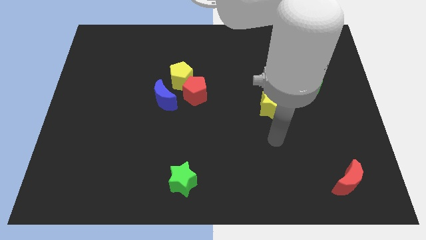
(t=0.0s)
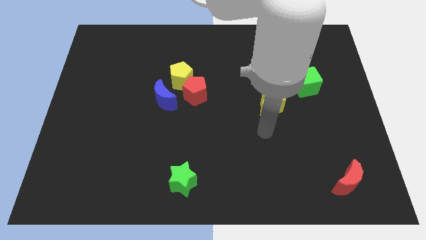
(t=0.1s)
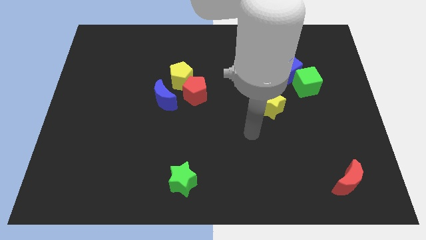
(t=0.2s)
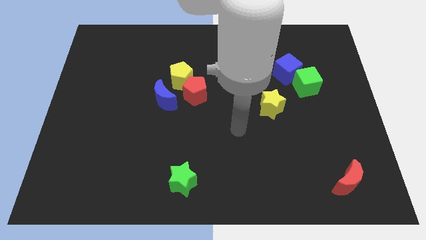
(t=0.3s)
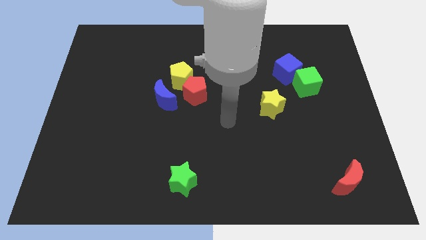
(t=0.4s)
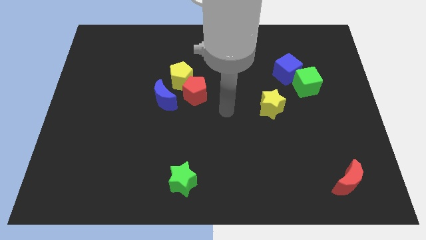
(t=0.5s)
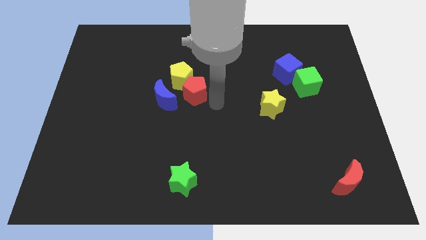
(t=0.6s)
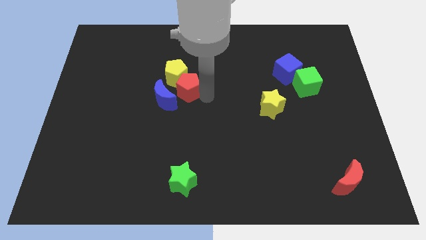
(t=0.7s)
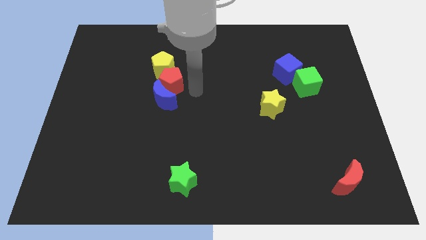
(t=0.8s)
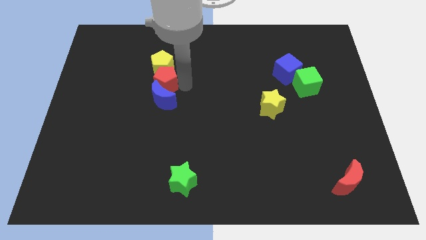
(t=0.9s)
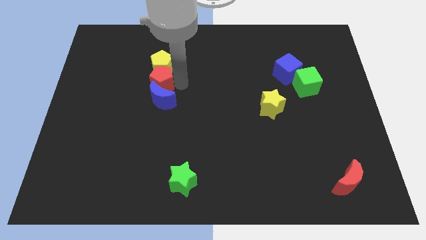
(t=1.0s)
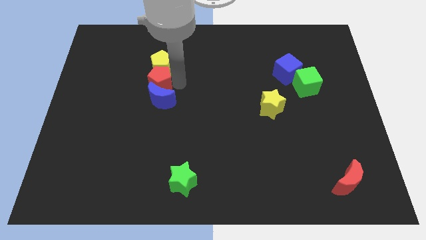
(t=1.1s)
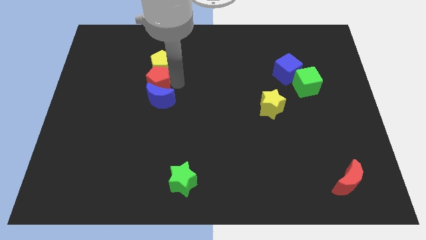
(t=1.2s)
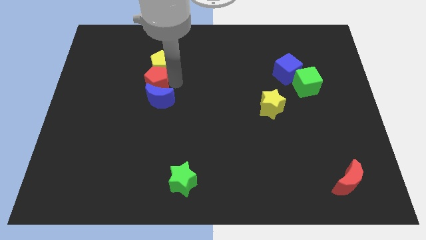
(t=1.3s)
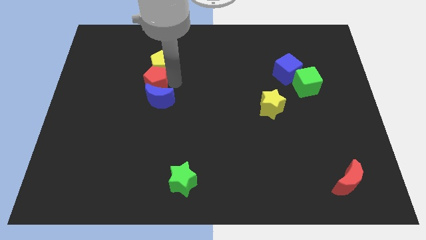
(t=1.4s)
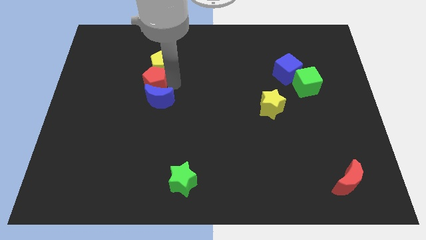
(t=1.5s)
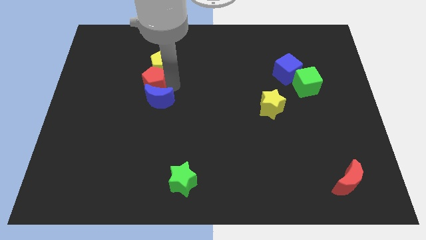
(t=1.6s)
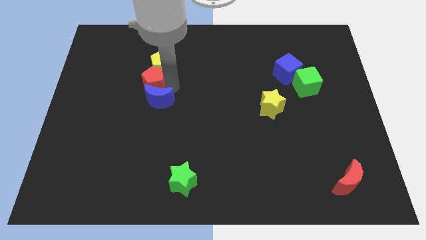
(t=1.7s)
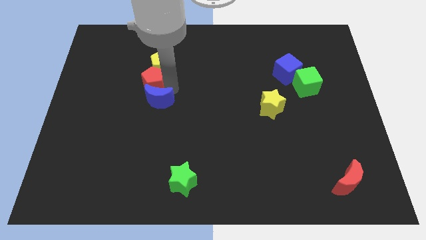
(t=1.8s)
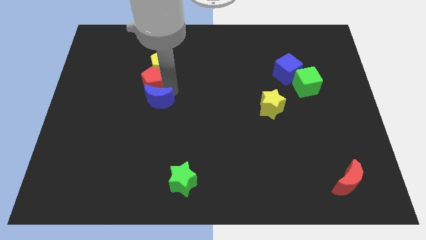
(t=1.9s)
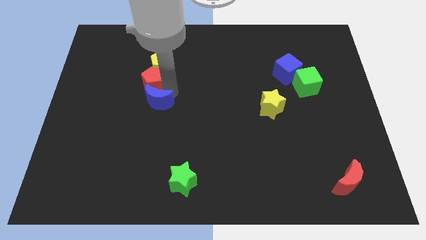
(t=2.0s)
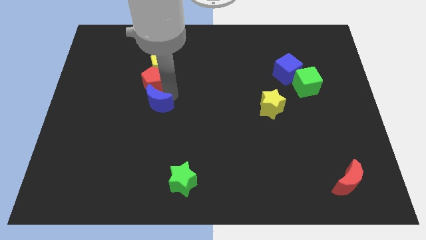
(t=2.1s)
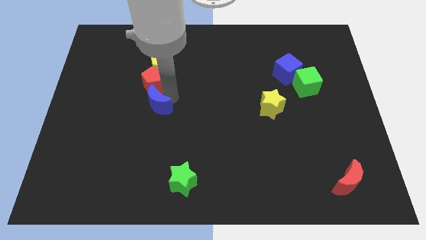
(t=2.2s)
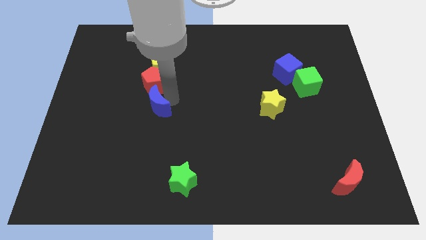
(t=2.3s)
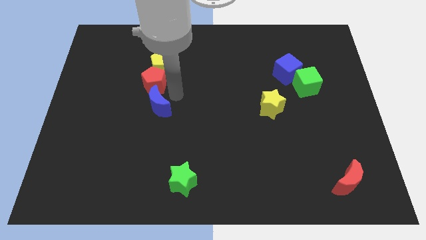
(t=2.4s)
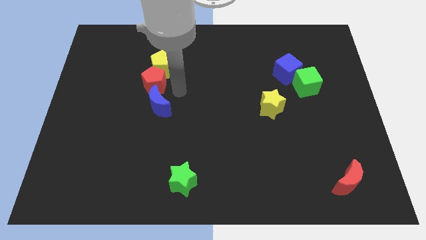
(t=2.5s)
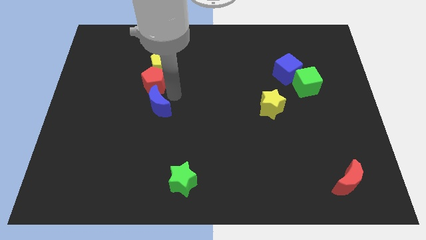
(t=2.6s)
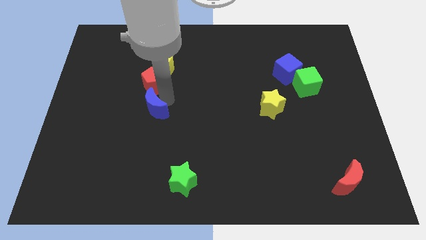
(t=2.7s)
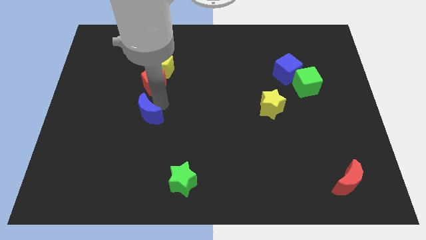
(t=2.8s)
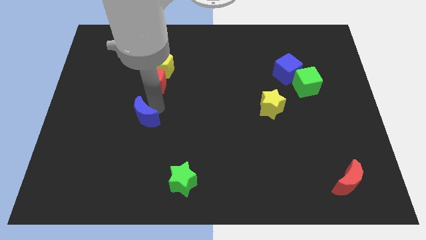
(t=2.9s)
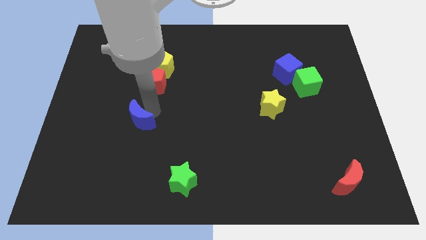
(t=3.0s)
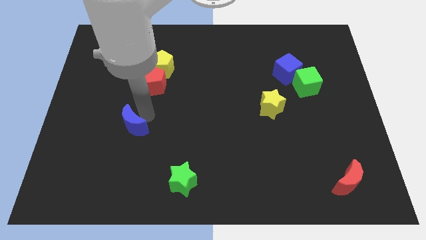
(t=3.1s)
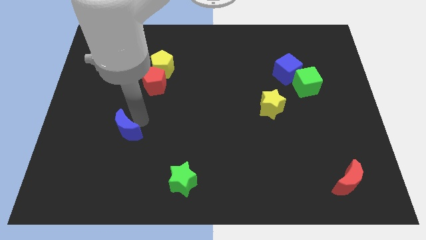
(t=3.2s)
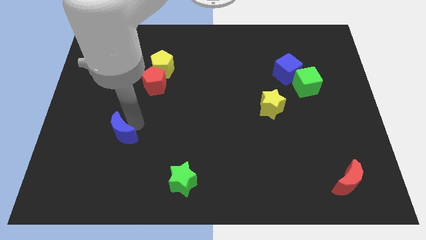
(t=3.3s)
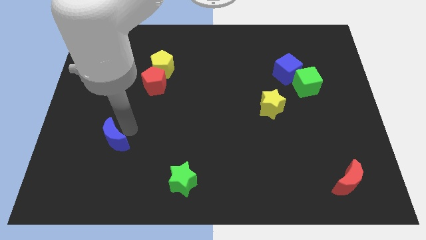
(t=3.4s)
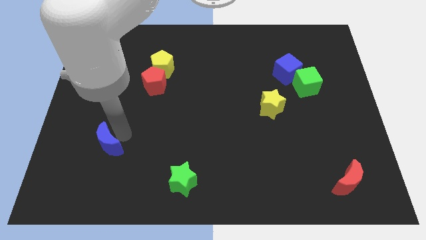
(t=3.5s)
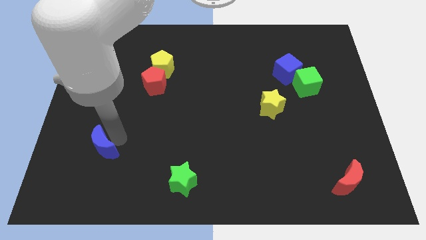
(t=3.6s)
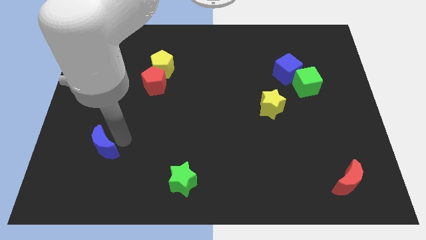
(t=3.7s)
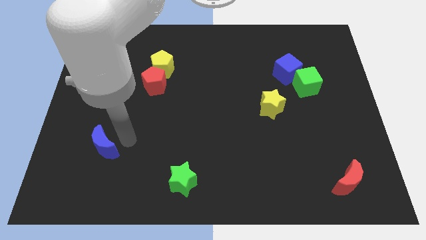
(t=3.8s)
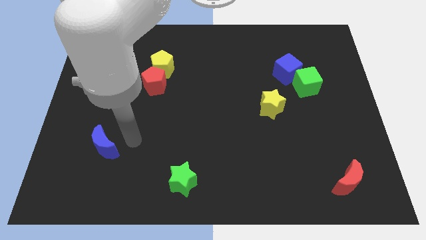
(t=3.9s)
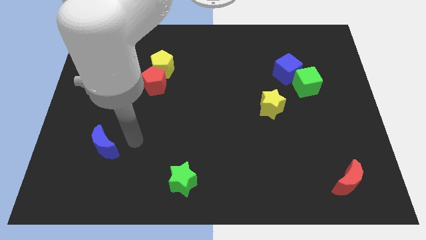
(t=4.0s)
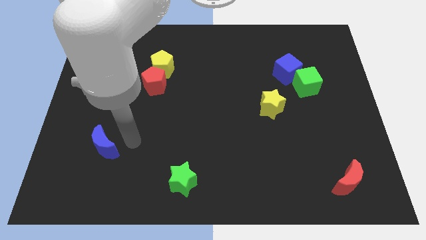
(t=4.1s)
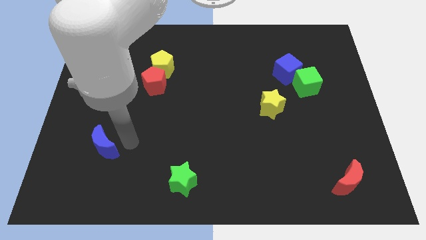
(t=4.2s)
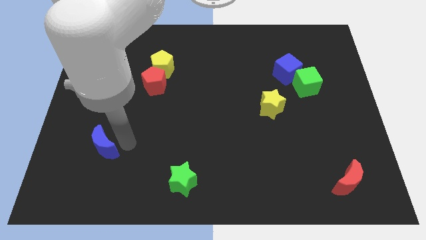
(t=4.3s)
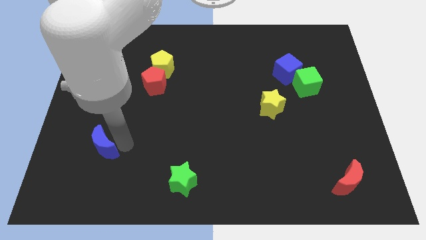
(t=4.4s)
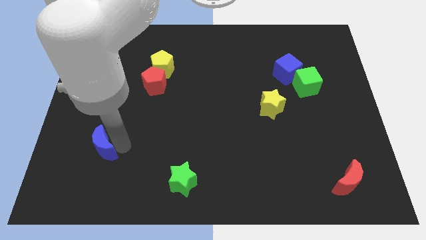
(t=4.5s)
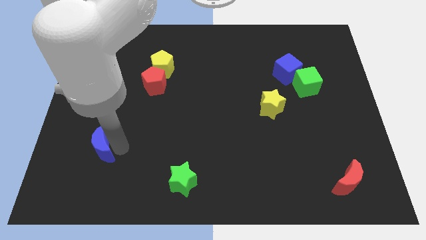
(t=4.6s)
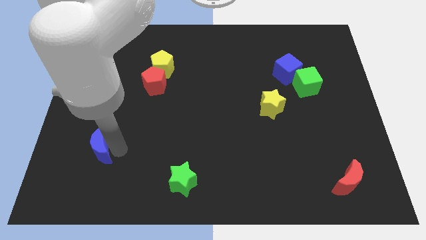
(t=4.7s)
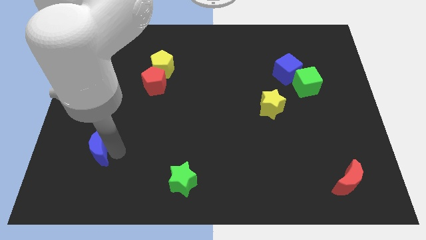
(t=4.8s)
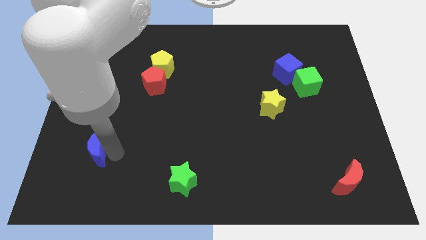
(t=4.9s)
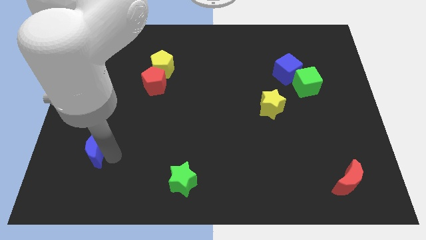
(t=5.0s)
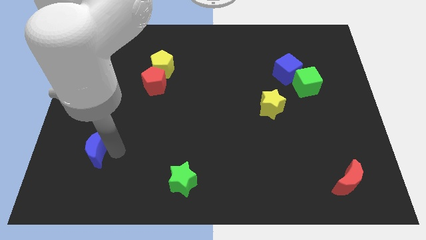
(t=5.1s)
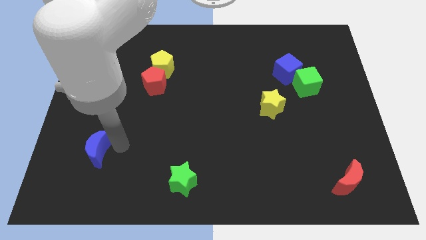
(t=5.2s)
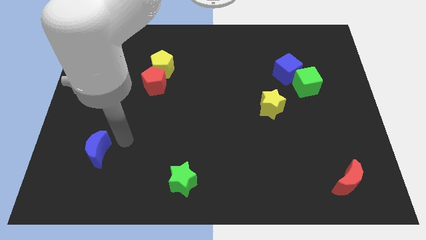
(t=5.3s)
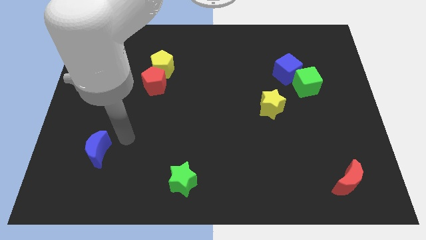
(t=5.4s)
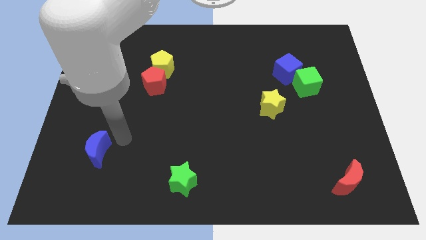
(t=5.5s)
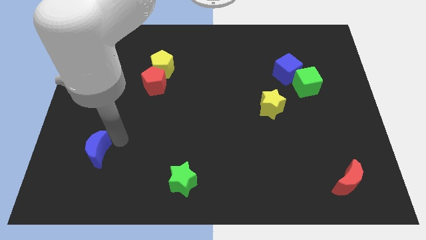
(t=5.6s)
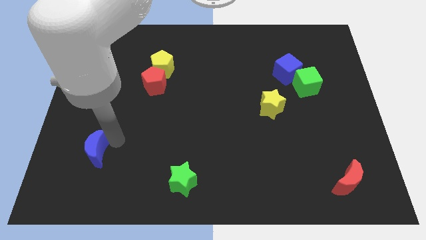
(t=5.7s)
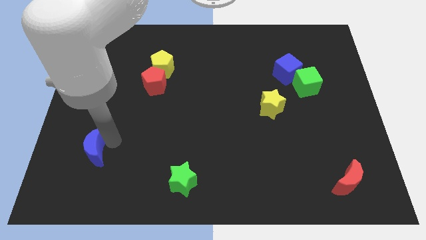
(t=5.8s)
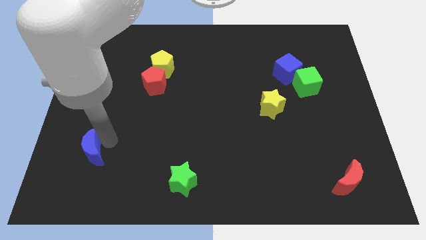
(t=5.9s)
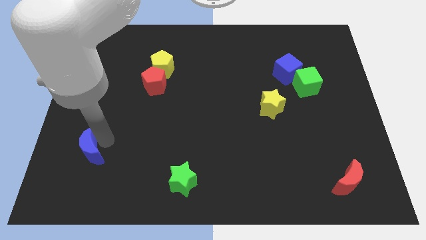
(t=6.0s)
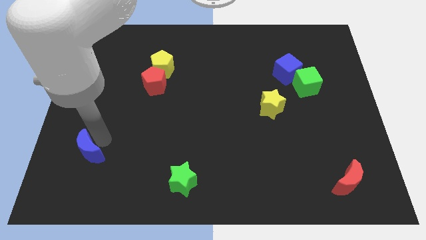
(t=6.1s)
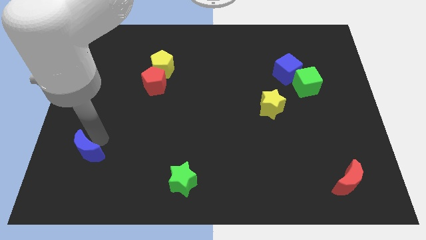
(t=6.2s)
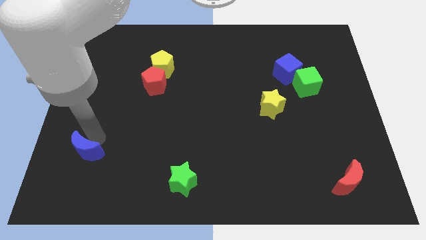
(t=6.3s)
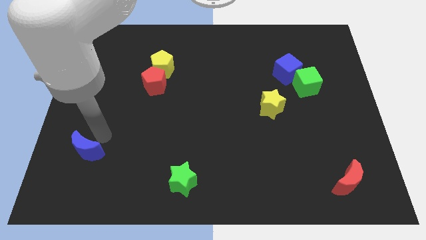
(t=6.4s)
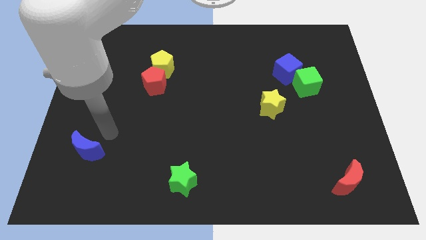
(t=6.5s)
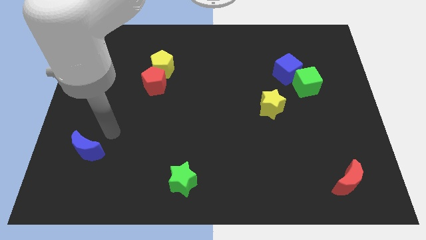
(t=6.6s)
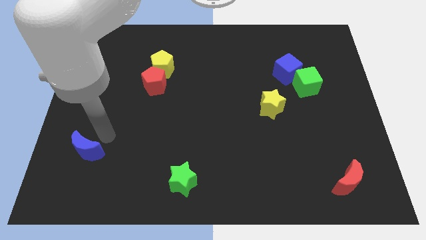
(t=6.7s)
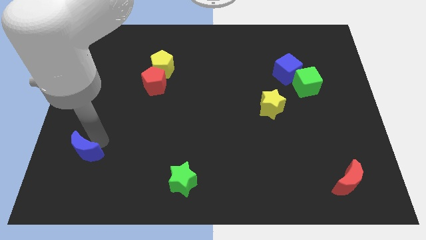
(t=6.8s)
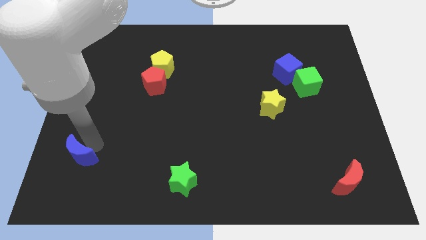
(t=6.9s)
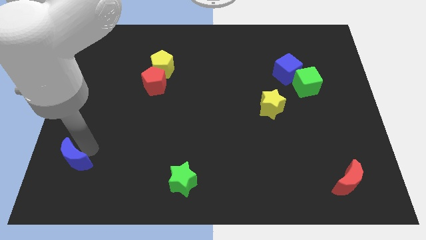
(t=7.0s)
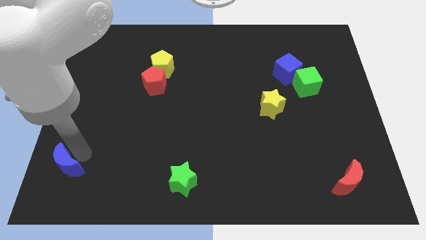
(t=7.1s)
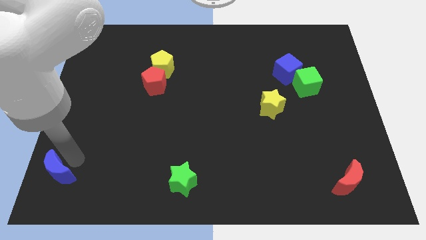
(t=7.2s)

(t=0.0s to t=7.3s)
move the blue moon to the bottom left of the board
